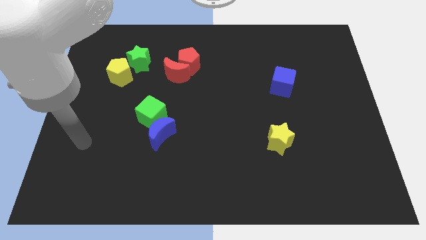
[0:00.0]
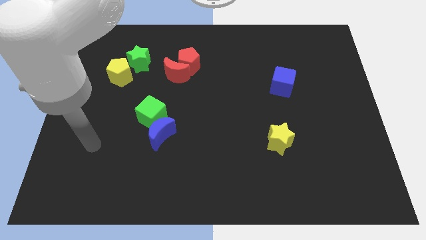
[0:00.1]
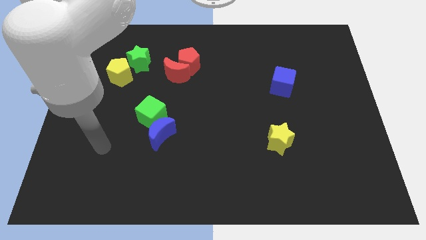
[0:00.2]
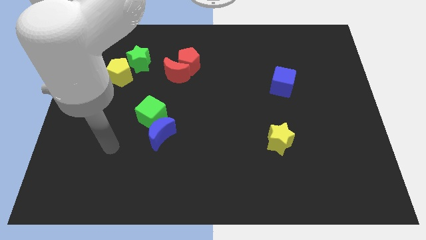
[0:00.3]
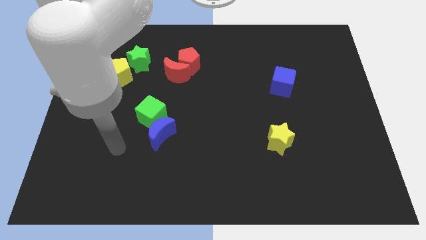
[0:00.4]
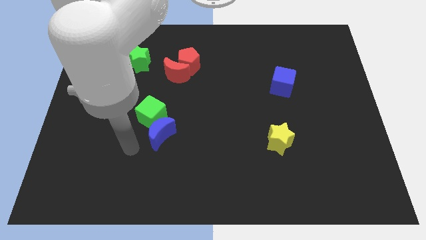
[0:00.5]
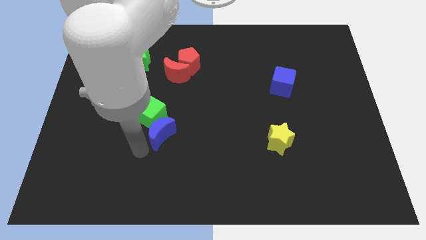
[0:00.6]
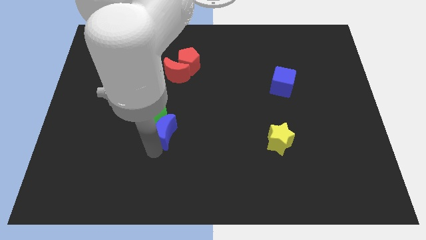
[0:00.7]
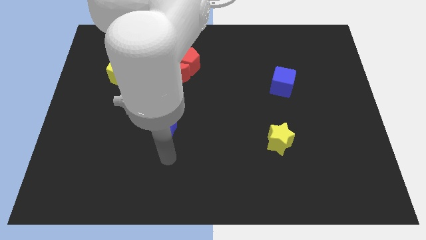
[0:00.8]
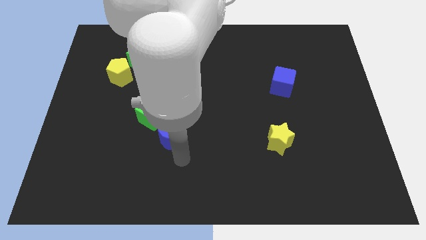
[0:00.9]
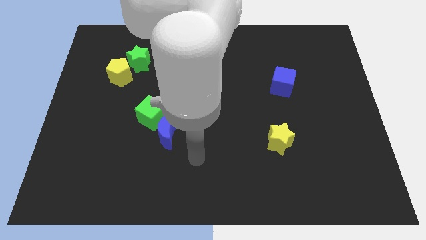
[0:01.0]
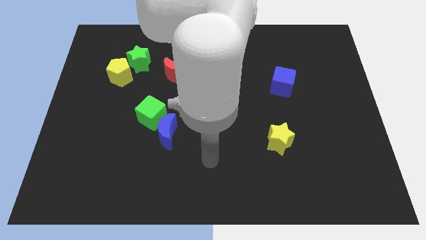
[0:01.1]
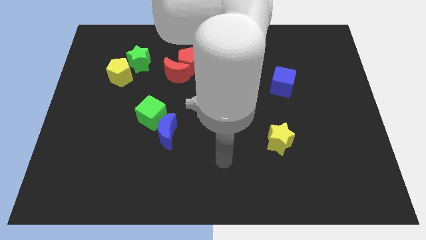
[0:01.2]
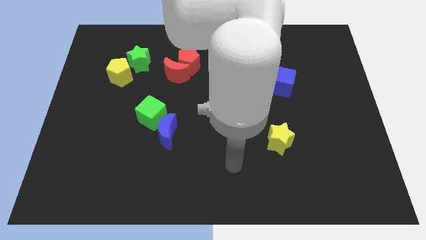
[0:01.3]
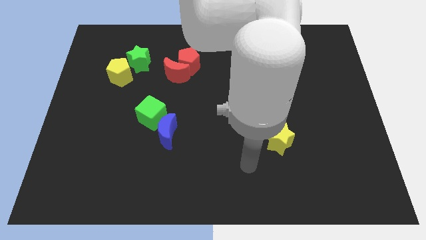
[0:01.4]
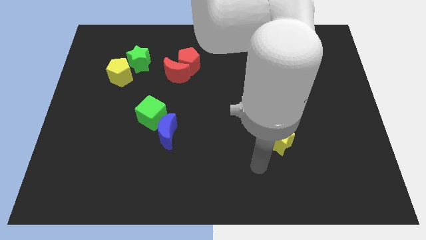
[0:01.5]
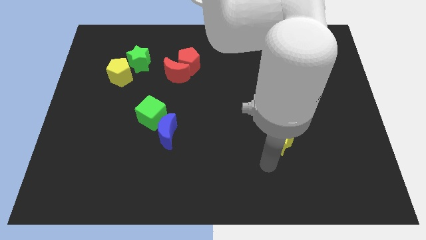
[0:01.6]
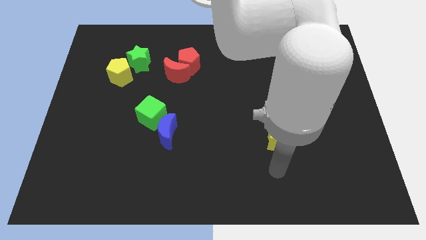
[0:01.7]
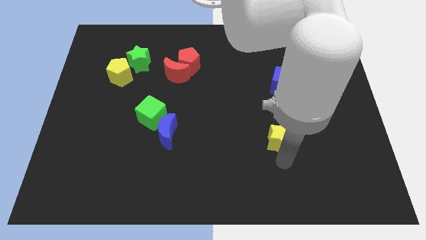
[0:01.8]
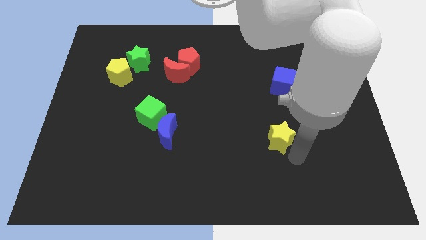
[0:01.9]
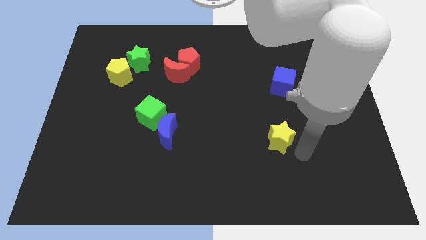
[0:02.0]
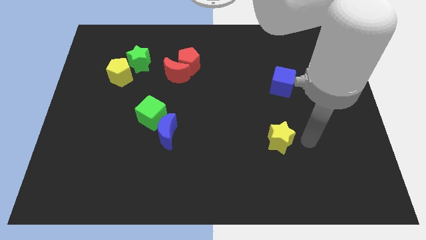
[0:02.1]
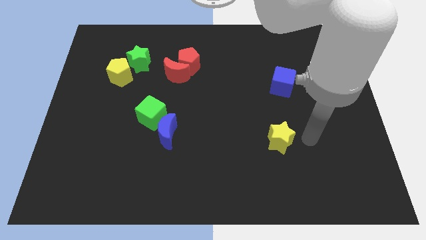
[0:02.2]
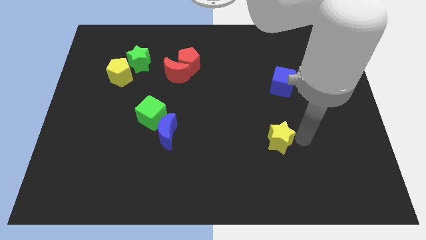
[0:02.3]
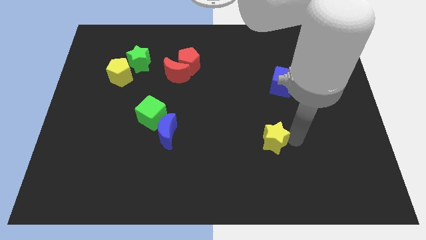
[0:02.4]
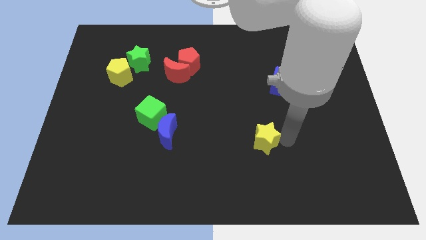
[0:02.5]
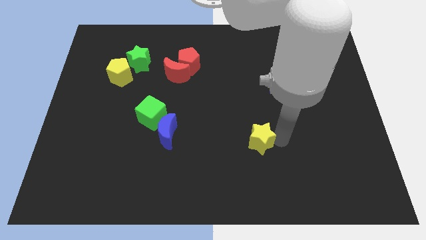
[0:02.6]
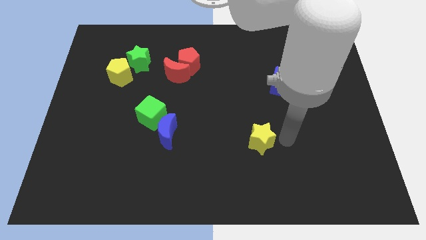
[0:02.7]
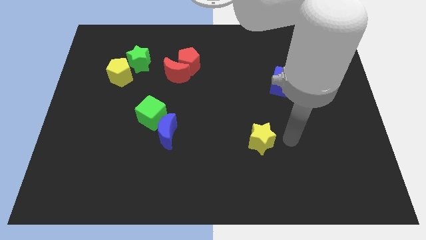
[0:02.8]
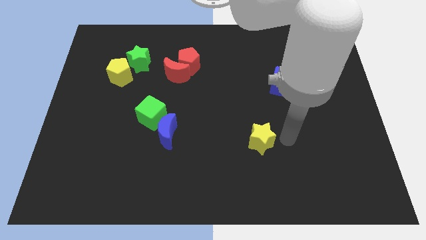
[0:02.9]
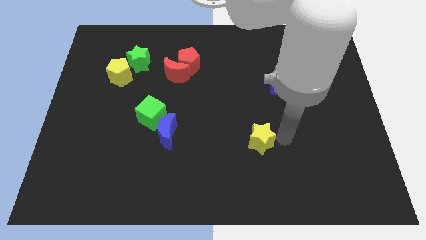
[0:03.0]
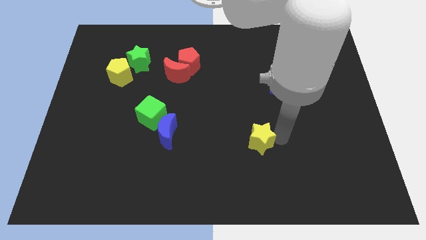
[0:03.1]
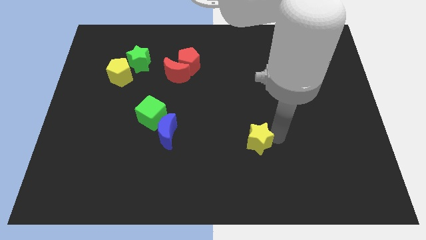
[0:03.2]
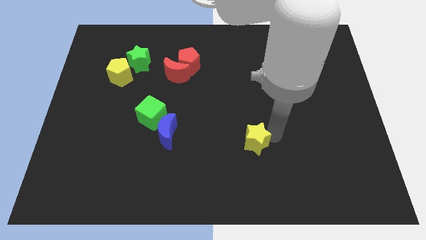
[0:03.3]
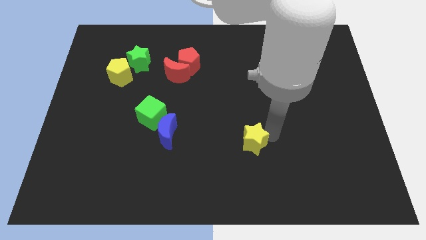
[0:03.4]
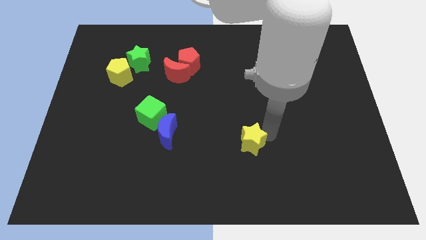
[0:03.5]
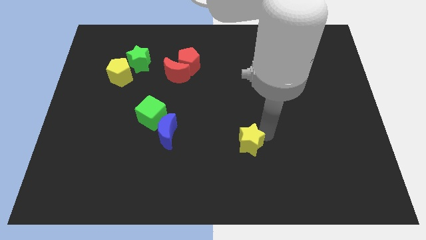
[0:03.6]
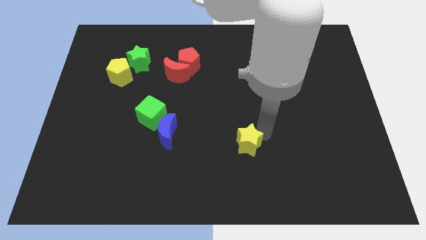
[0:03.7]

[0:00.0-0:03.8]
push the yellow star to the left a little bit

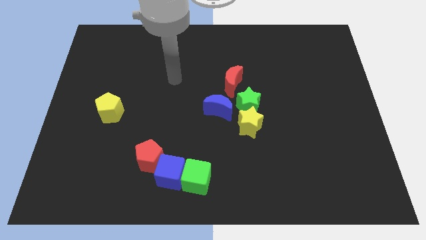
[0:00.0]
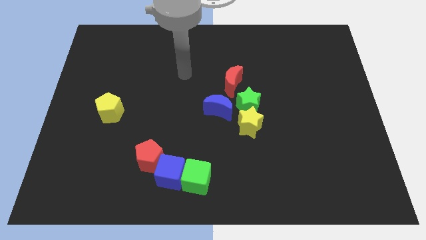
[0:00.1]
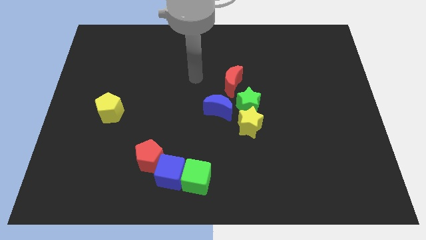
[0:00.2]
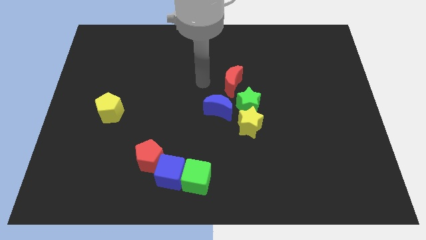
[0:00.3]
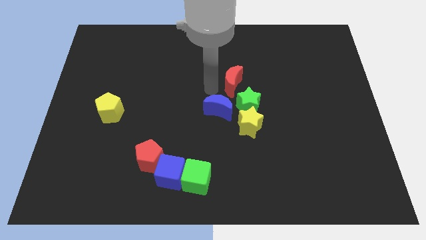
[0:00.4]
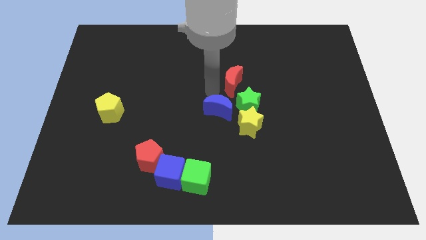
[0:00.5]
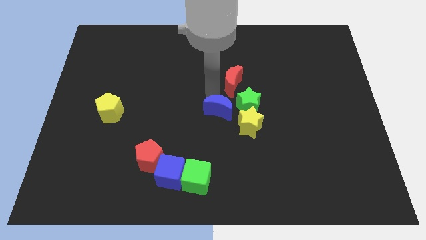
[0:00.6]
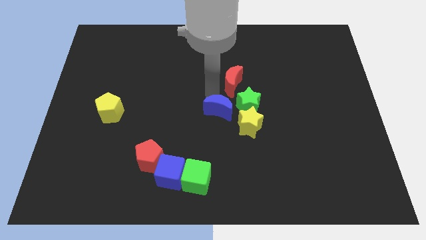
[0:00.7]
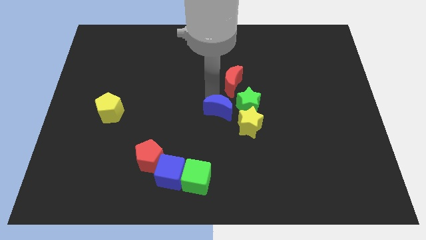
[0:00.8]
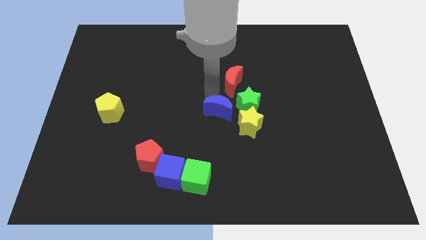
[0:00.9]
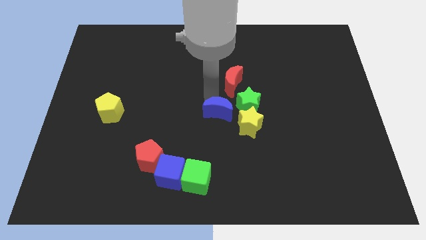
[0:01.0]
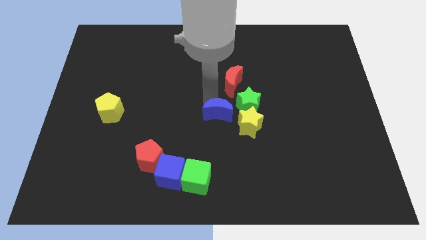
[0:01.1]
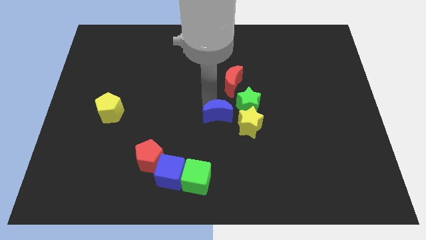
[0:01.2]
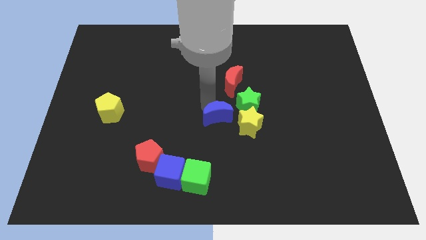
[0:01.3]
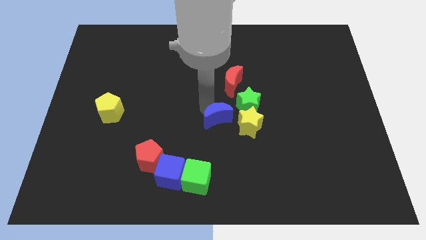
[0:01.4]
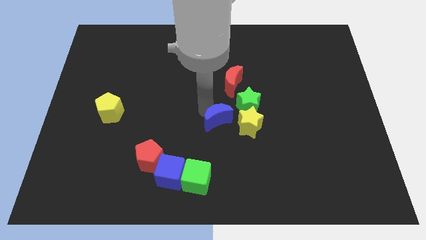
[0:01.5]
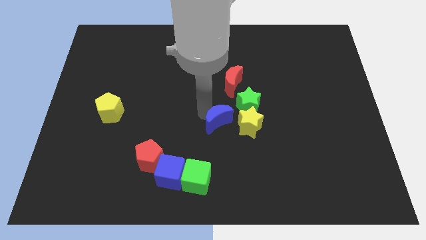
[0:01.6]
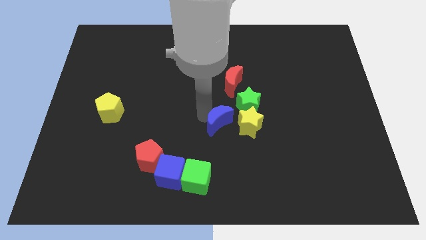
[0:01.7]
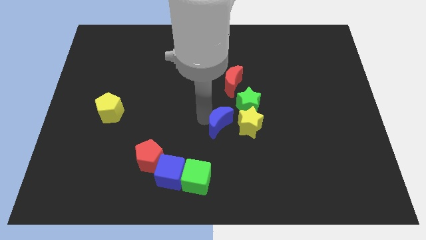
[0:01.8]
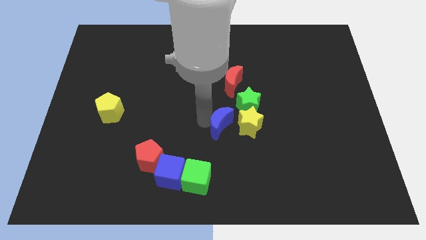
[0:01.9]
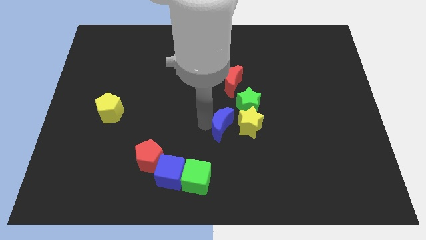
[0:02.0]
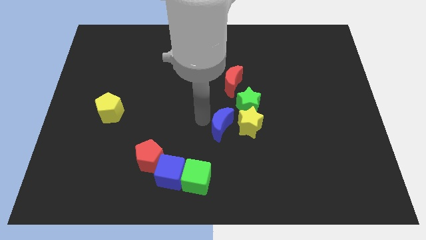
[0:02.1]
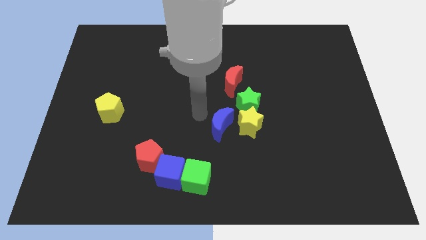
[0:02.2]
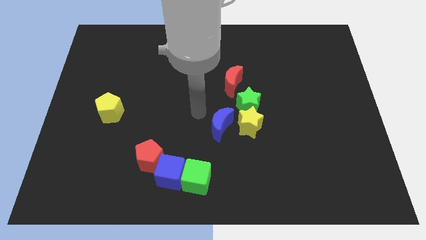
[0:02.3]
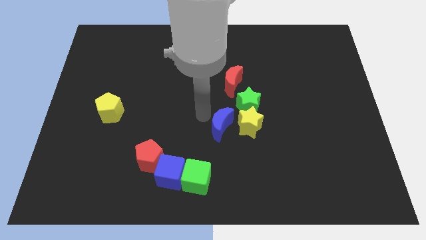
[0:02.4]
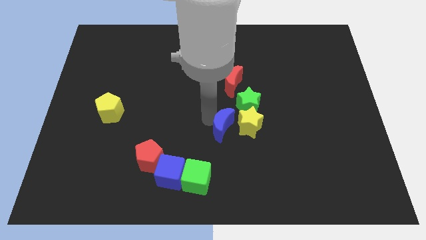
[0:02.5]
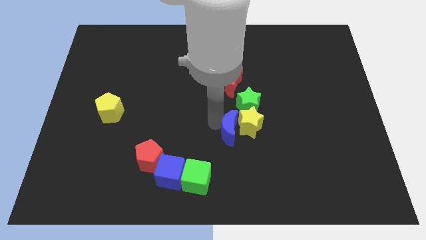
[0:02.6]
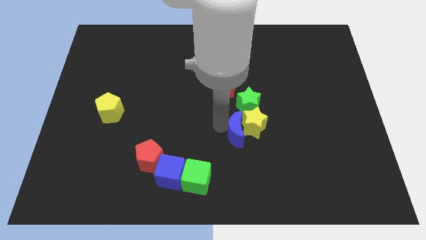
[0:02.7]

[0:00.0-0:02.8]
push the blue moon a little bit down and then to the right

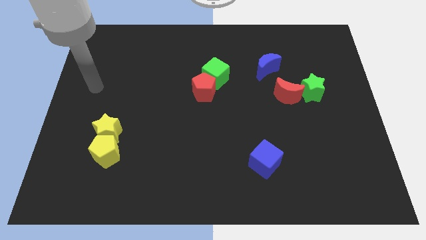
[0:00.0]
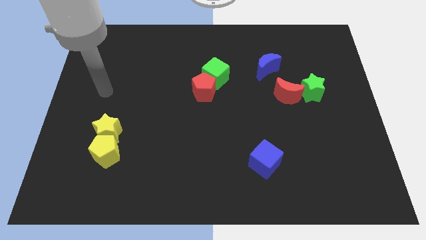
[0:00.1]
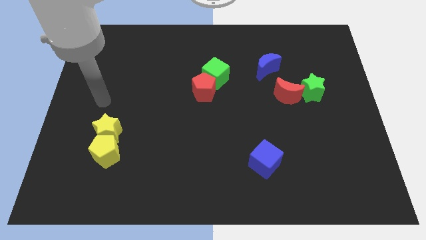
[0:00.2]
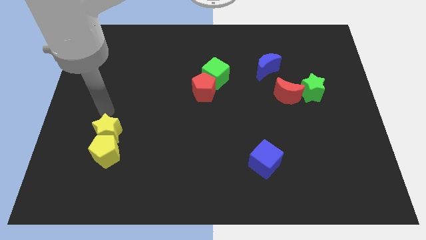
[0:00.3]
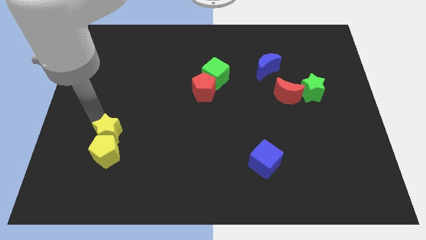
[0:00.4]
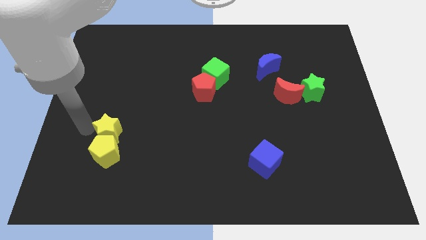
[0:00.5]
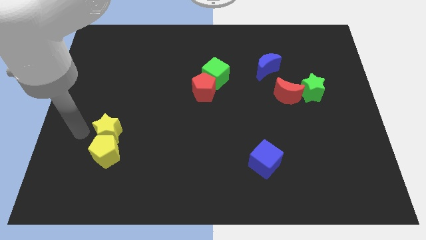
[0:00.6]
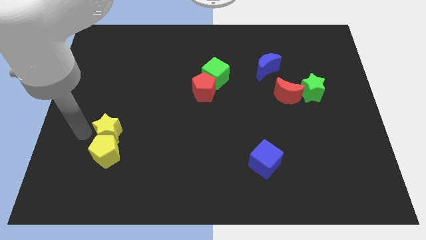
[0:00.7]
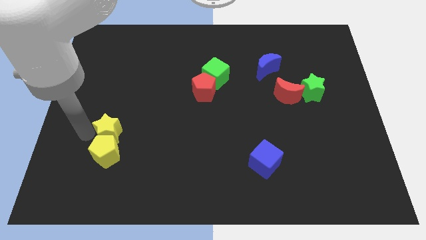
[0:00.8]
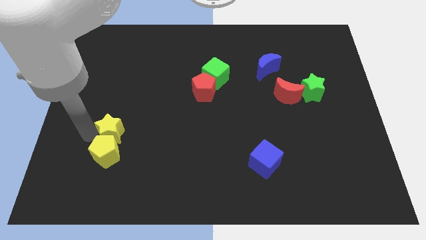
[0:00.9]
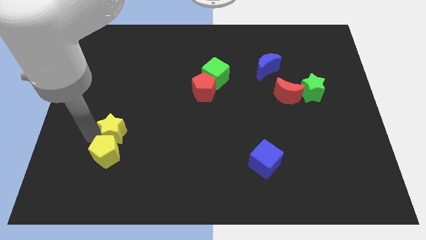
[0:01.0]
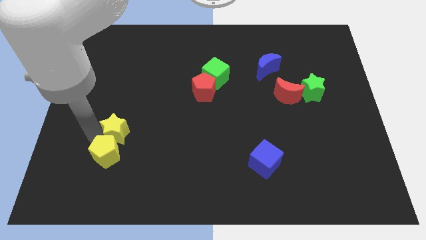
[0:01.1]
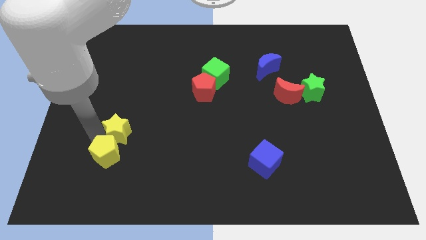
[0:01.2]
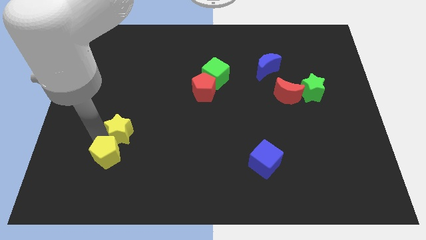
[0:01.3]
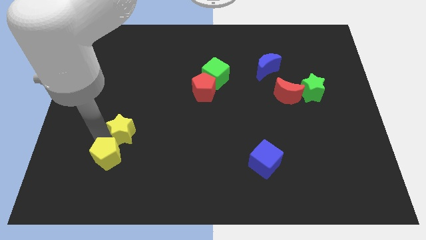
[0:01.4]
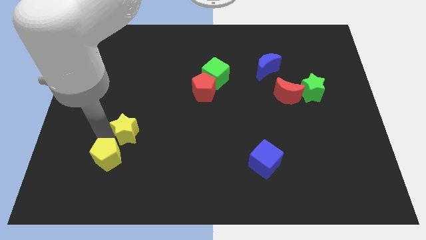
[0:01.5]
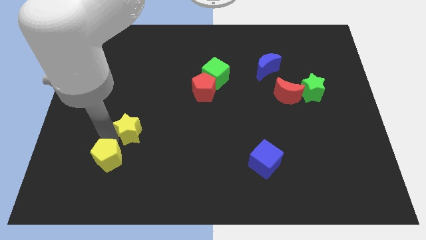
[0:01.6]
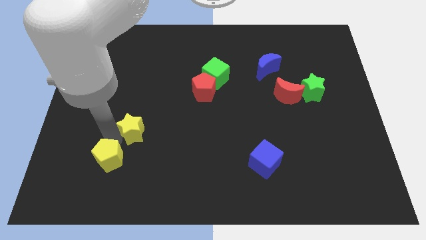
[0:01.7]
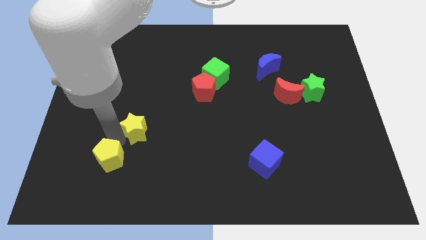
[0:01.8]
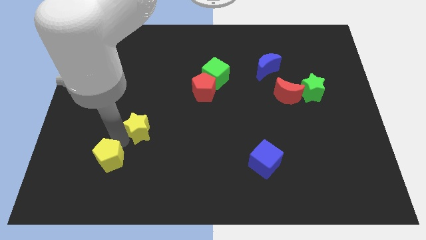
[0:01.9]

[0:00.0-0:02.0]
move the yellow star a bit to the right

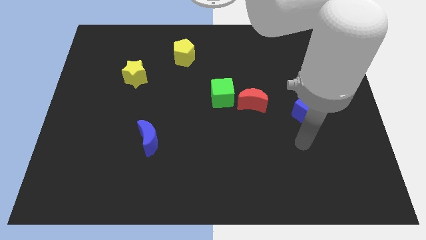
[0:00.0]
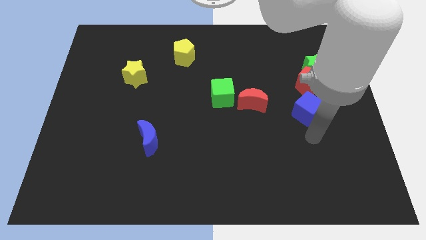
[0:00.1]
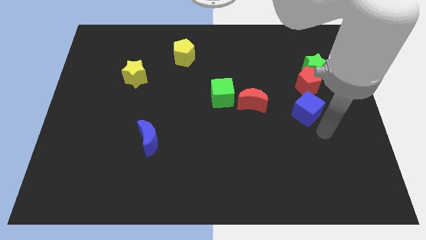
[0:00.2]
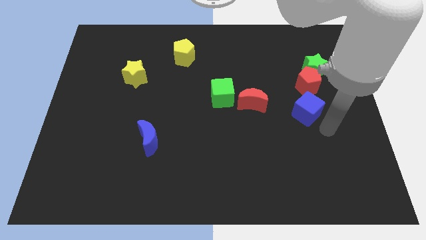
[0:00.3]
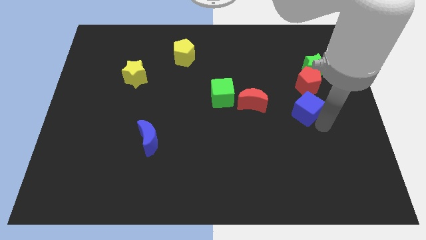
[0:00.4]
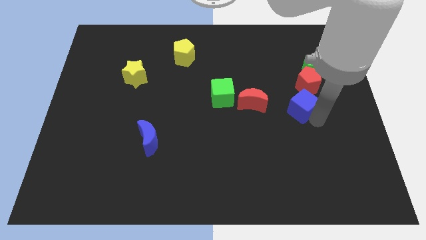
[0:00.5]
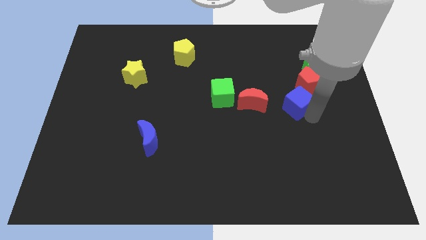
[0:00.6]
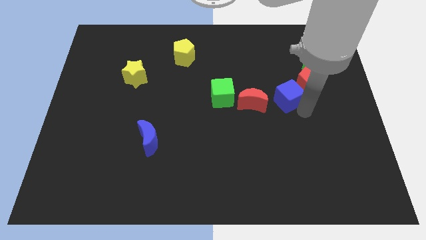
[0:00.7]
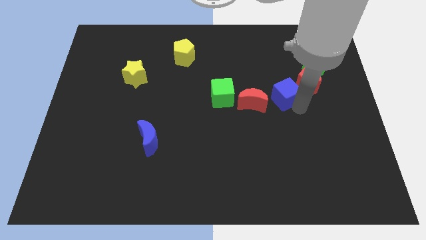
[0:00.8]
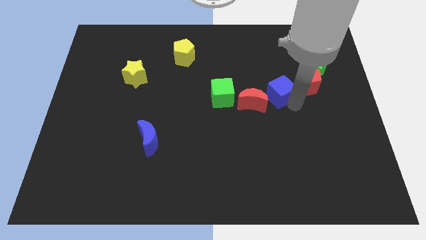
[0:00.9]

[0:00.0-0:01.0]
move the blue cube slightly diagonally up and left
